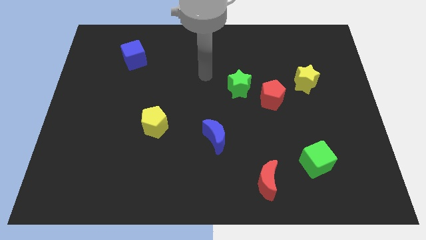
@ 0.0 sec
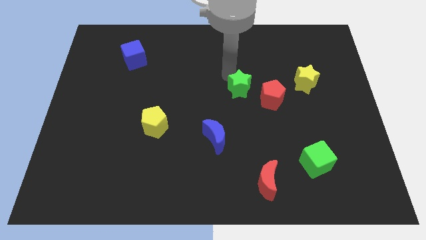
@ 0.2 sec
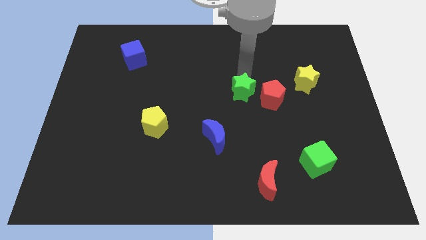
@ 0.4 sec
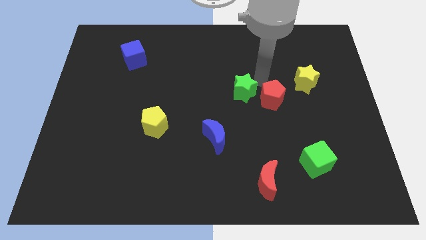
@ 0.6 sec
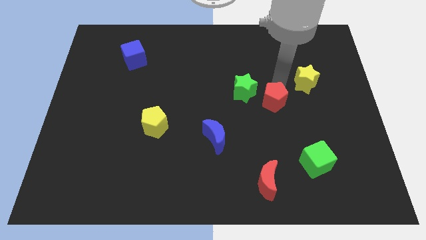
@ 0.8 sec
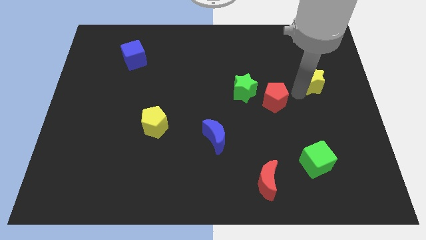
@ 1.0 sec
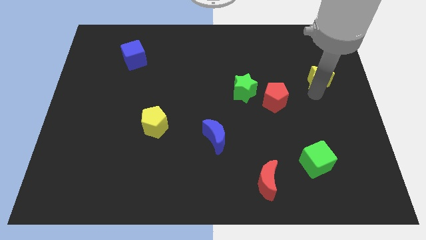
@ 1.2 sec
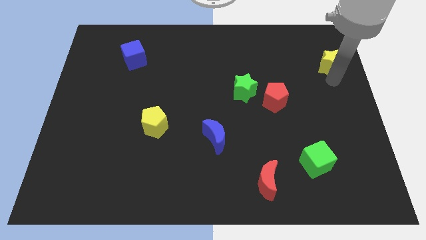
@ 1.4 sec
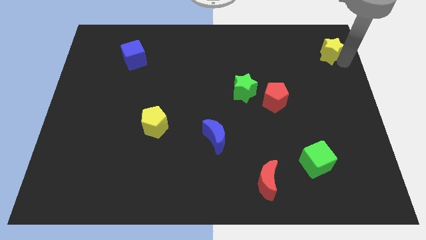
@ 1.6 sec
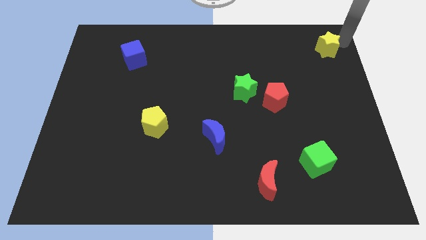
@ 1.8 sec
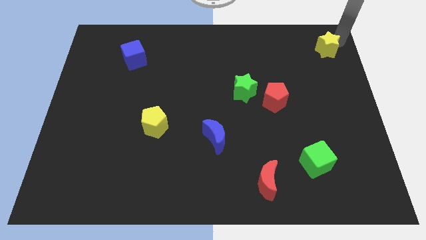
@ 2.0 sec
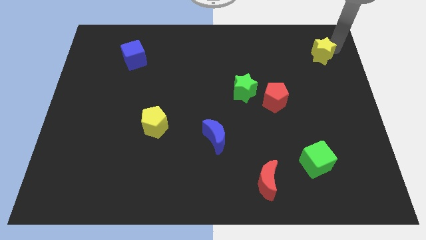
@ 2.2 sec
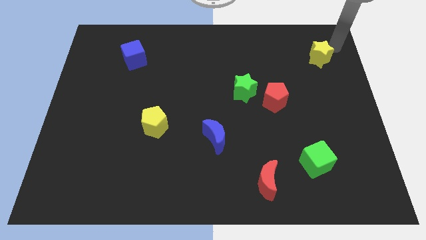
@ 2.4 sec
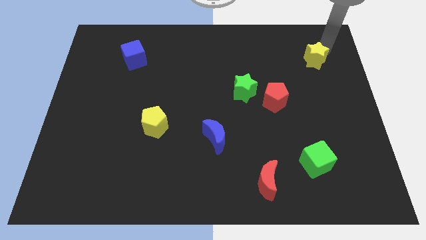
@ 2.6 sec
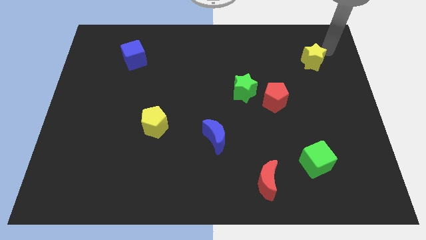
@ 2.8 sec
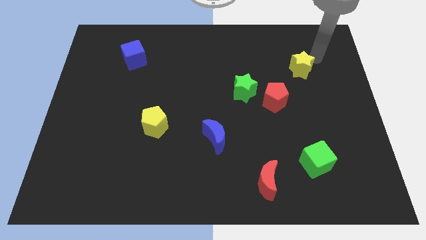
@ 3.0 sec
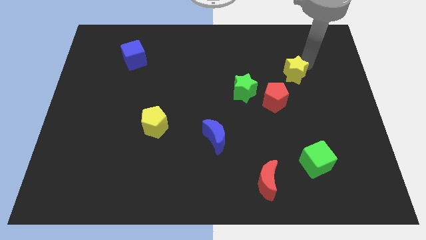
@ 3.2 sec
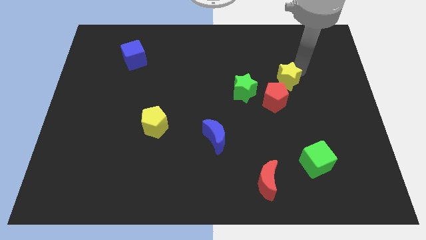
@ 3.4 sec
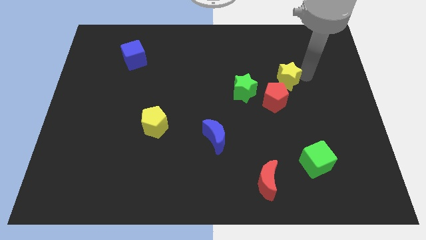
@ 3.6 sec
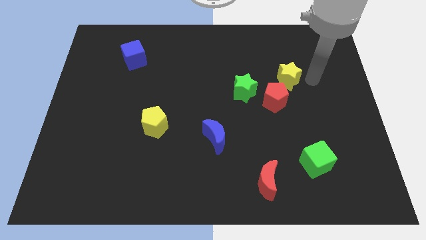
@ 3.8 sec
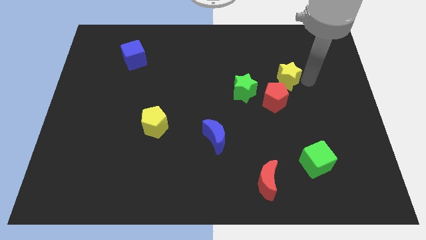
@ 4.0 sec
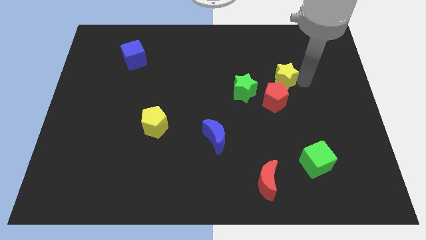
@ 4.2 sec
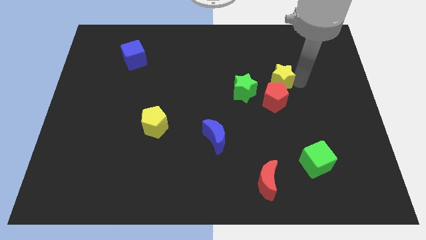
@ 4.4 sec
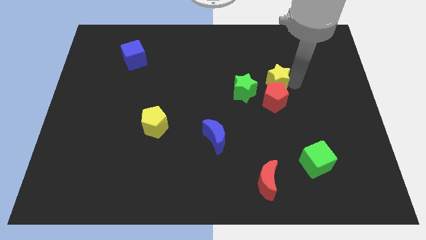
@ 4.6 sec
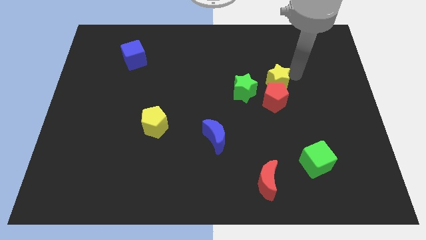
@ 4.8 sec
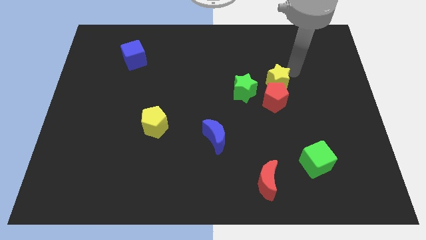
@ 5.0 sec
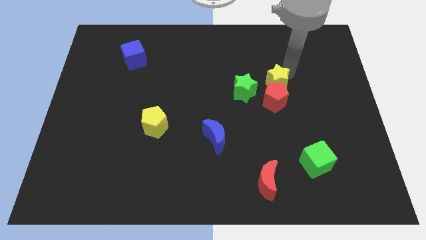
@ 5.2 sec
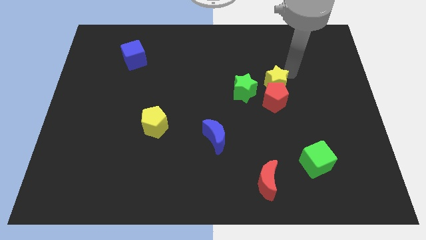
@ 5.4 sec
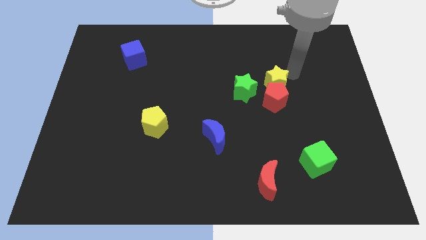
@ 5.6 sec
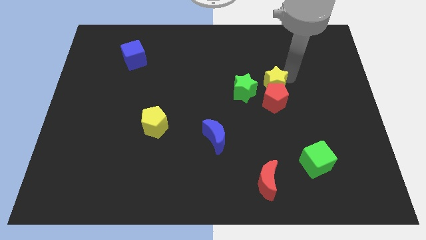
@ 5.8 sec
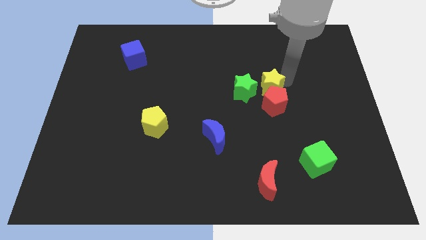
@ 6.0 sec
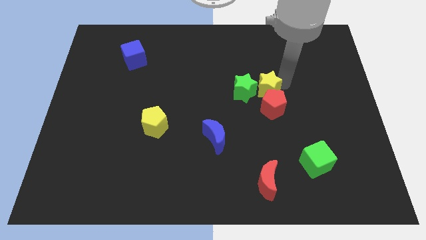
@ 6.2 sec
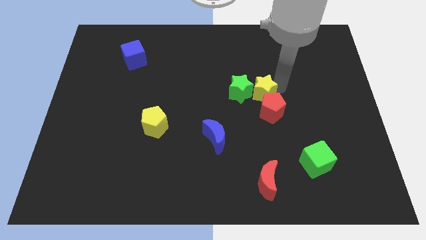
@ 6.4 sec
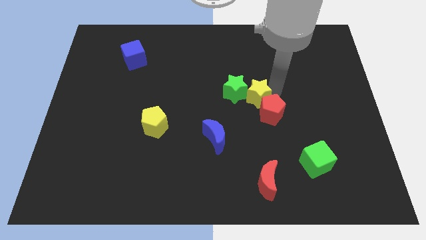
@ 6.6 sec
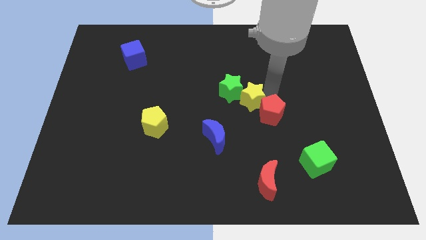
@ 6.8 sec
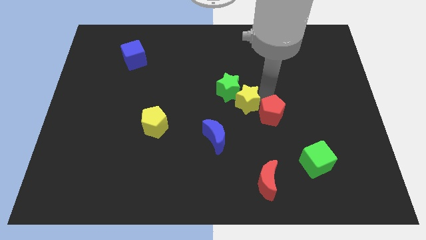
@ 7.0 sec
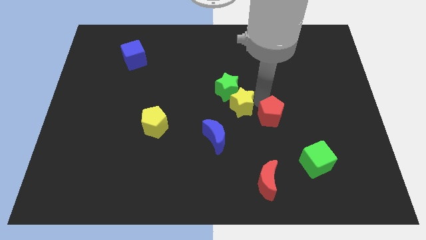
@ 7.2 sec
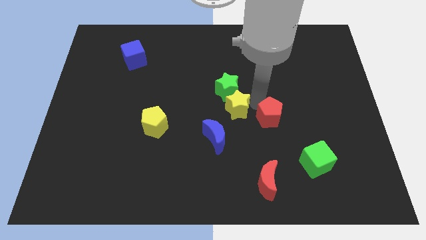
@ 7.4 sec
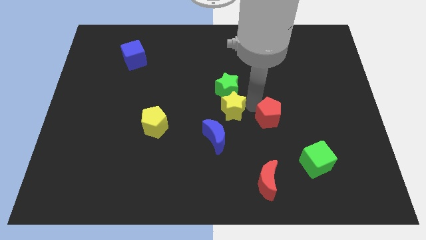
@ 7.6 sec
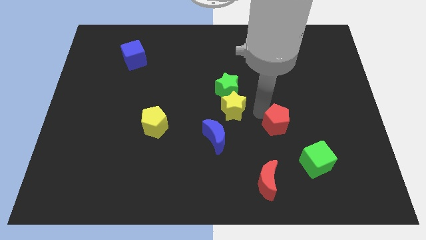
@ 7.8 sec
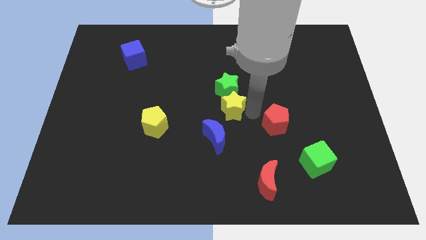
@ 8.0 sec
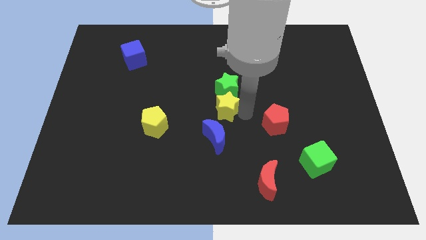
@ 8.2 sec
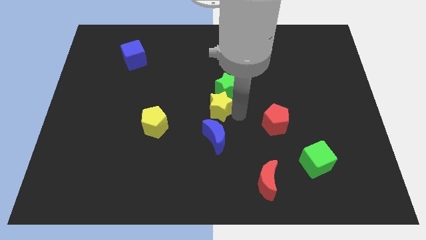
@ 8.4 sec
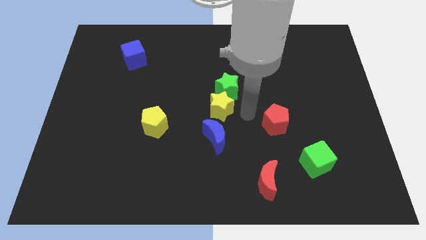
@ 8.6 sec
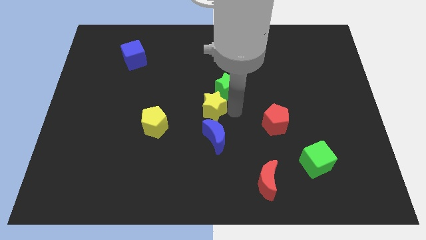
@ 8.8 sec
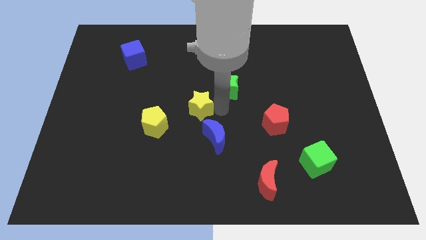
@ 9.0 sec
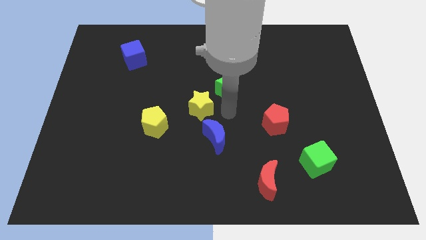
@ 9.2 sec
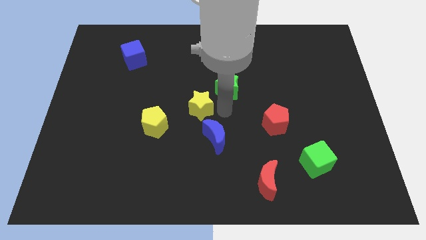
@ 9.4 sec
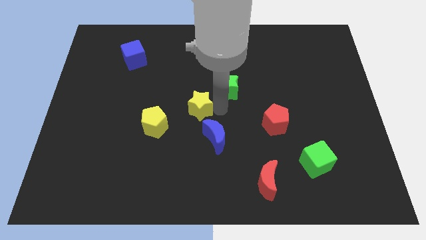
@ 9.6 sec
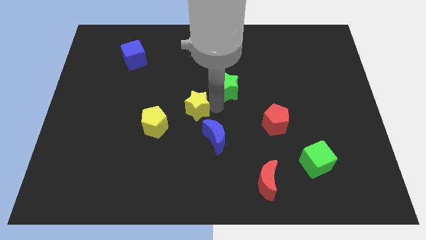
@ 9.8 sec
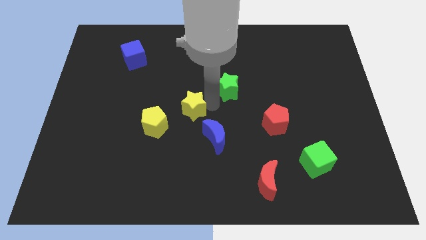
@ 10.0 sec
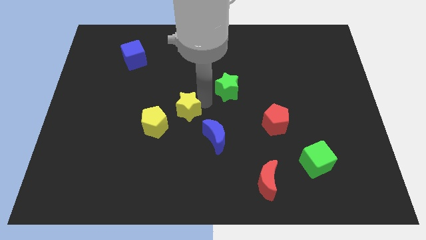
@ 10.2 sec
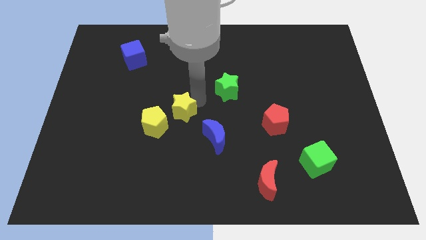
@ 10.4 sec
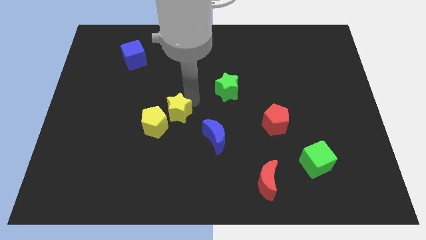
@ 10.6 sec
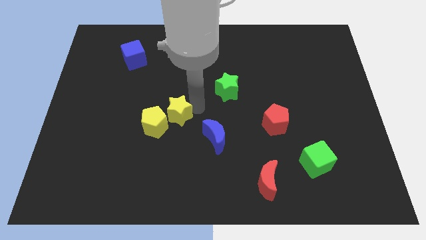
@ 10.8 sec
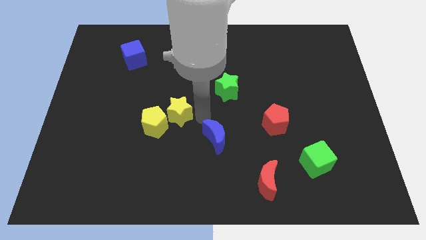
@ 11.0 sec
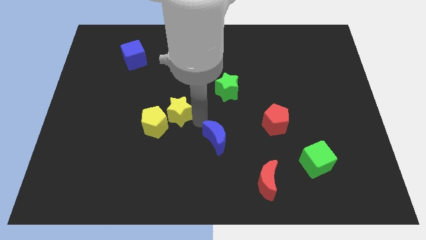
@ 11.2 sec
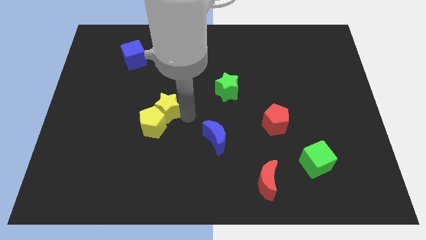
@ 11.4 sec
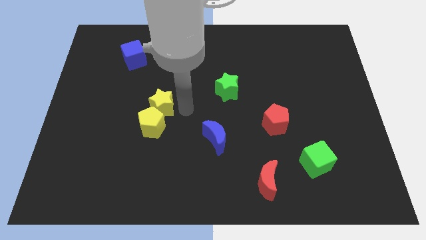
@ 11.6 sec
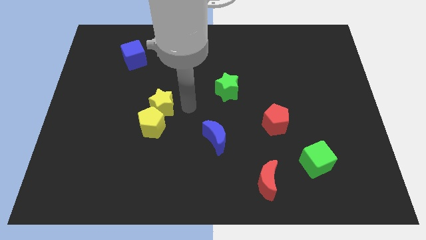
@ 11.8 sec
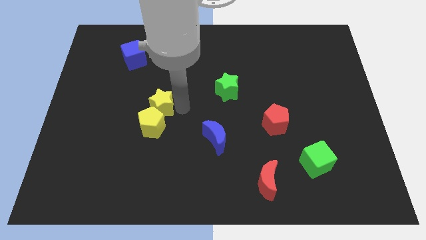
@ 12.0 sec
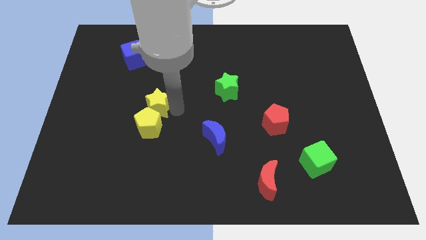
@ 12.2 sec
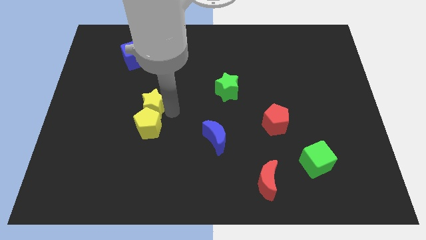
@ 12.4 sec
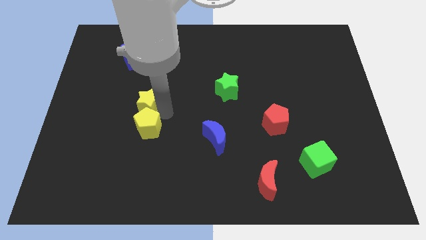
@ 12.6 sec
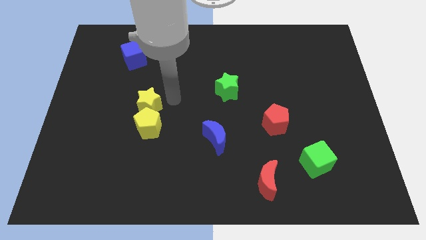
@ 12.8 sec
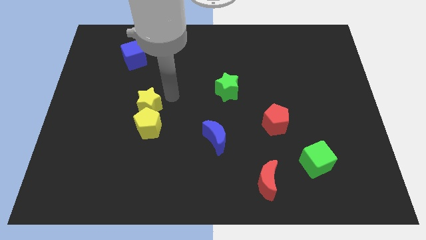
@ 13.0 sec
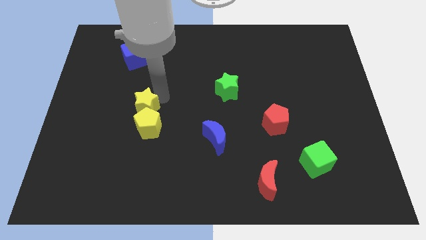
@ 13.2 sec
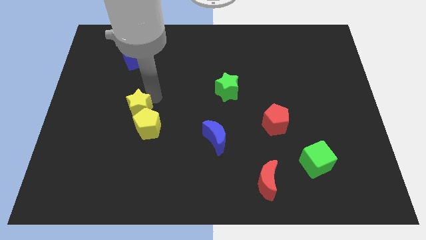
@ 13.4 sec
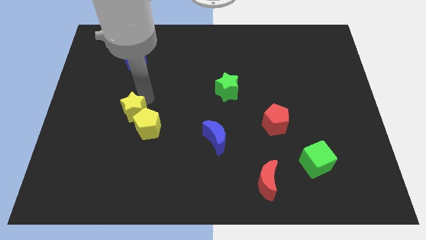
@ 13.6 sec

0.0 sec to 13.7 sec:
put the yellow star left of the yellow pentagon
